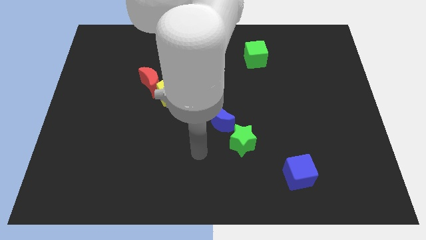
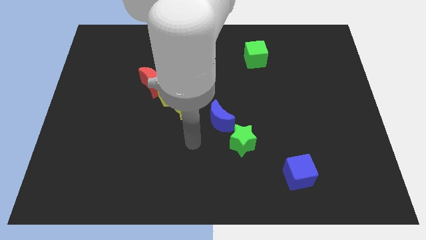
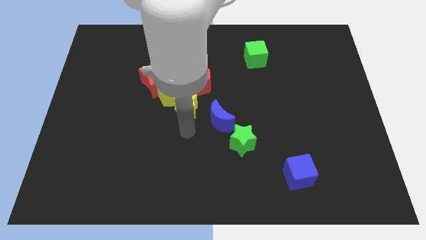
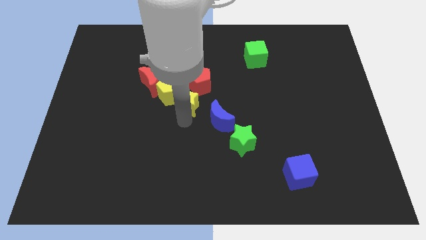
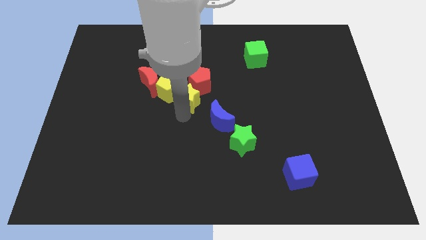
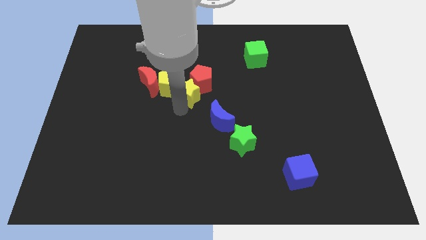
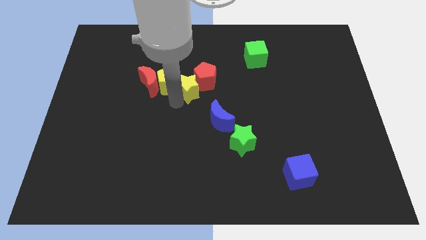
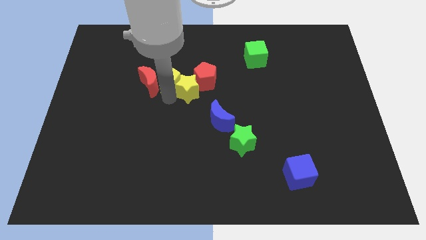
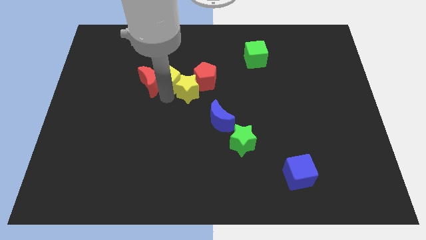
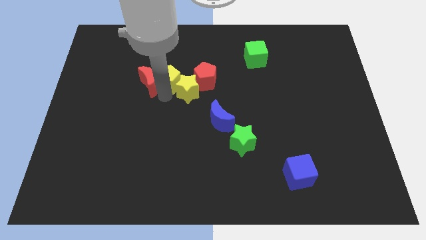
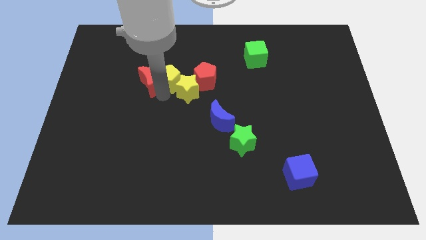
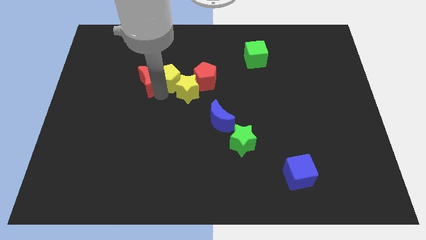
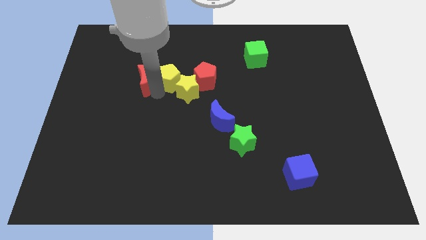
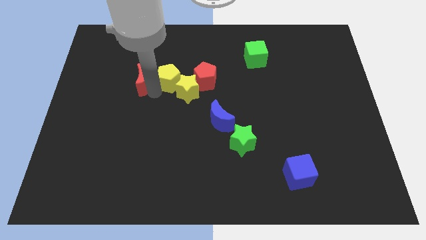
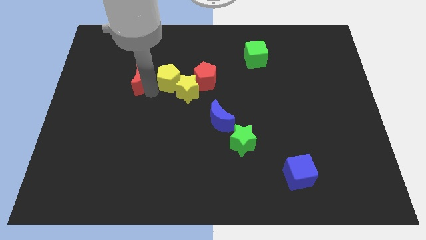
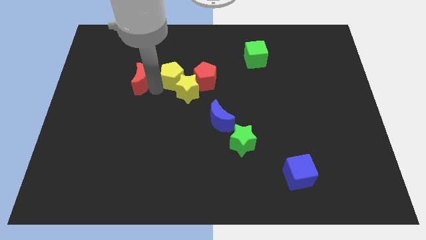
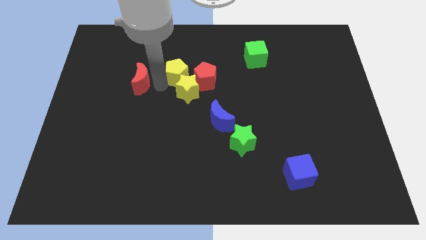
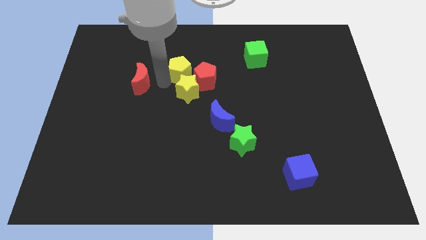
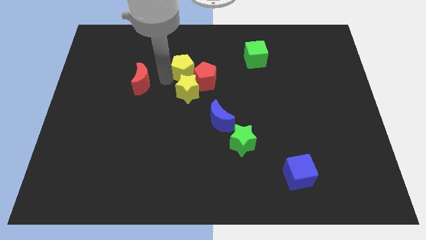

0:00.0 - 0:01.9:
separate the red moon from the yellow pentagon

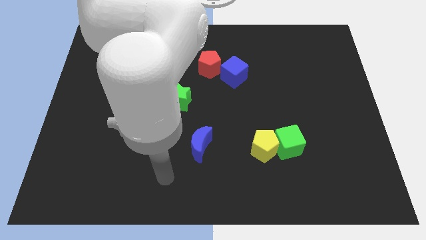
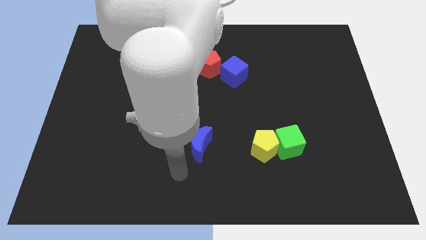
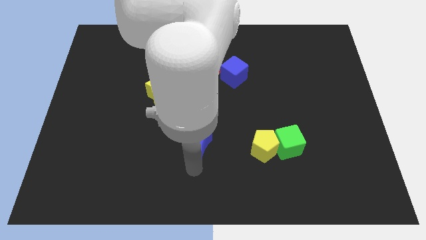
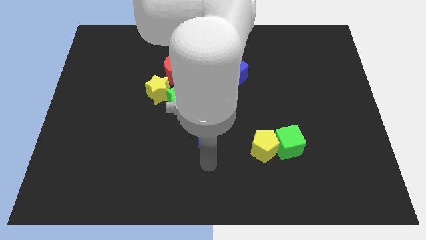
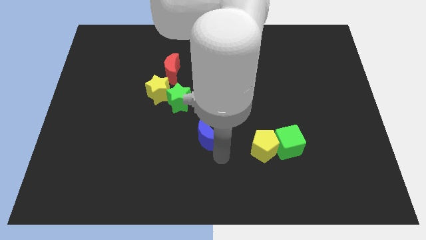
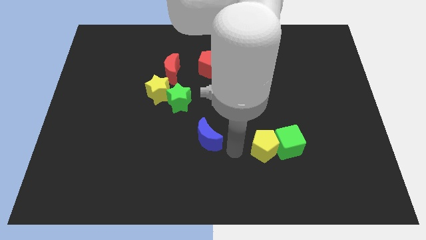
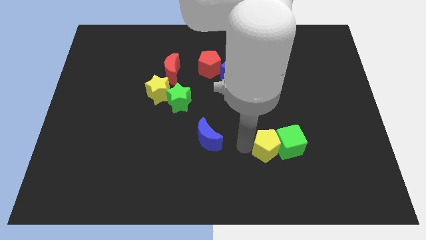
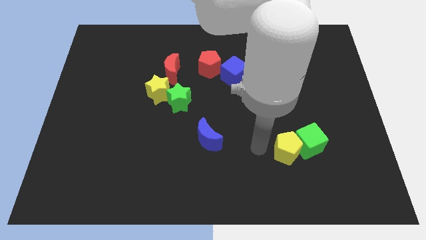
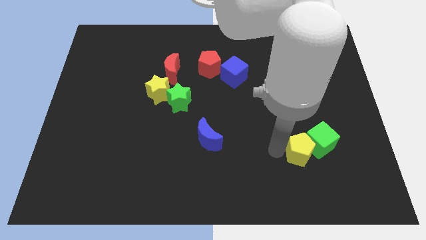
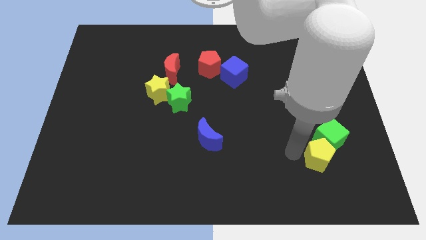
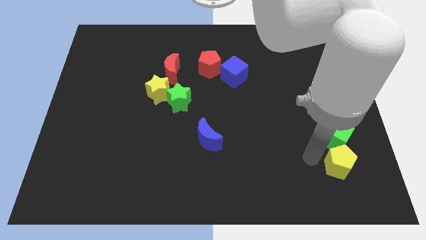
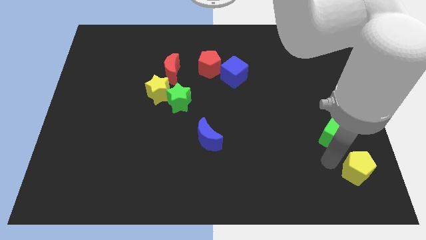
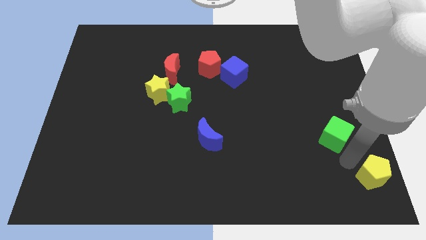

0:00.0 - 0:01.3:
separate the green cube from the yellow pentagon

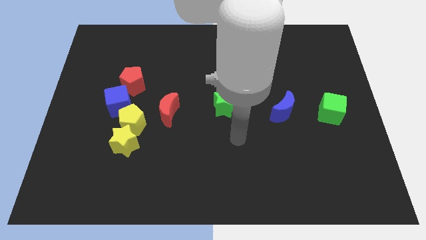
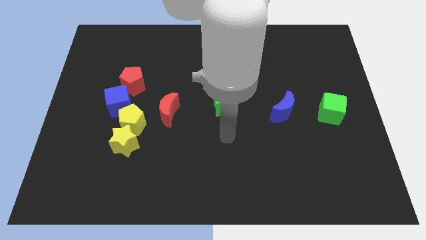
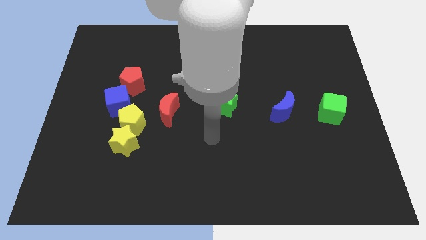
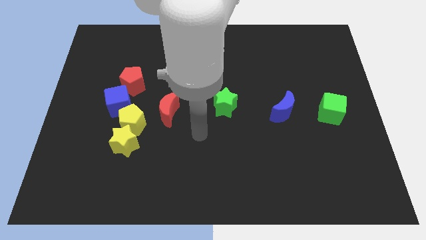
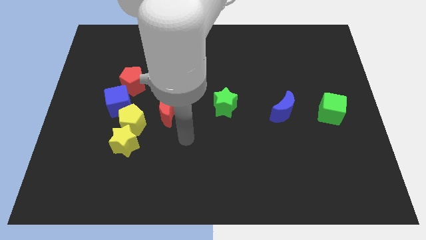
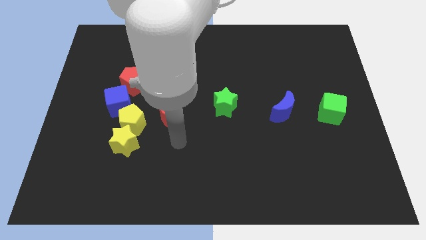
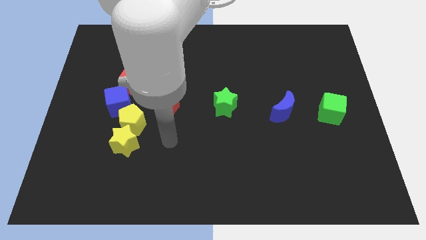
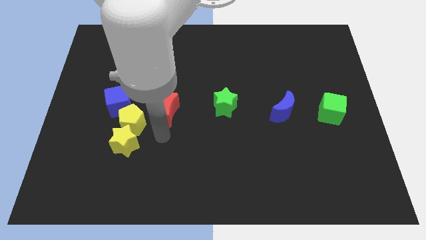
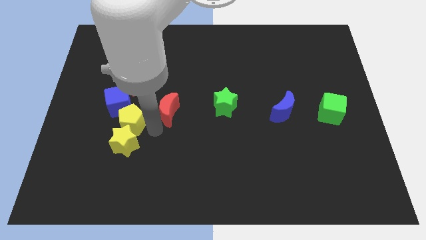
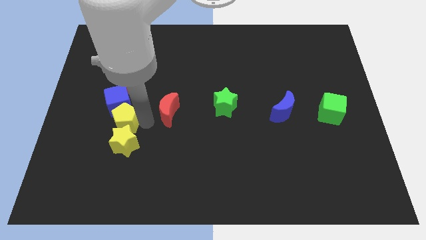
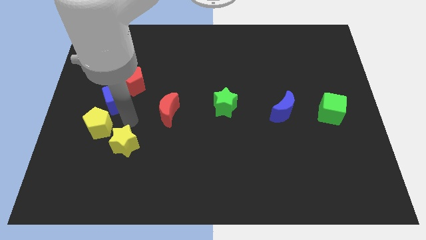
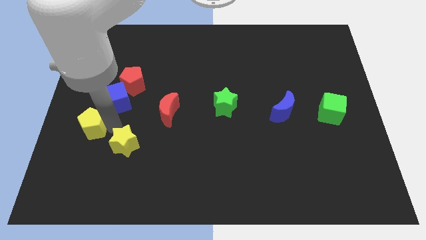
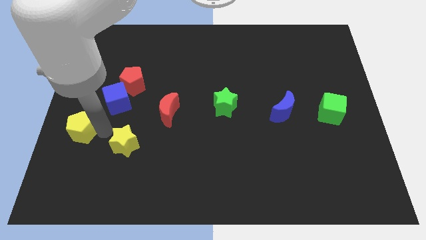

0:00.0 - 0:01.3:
move the yellow star away from the yellow pentagon

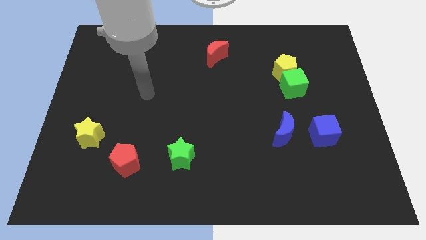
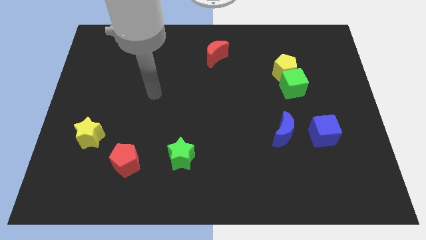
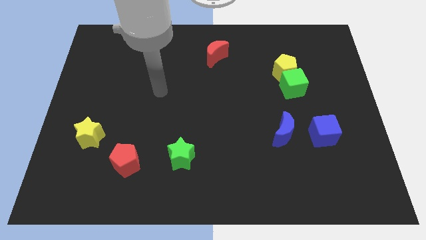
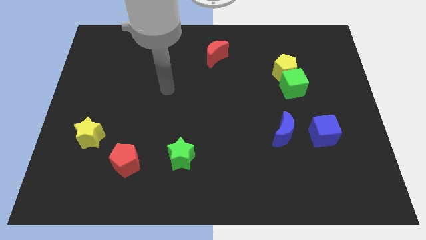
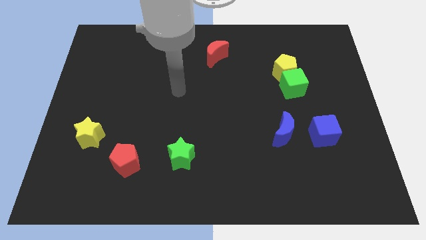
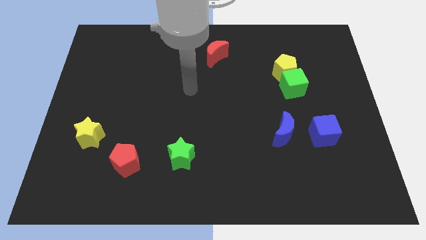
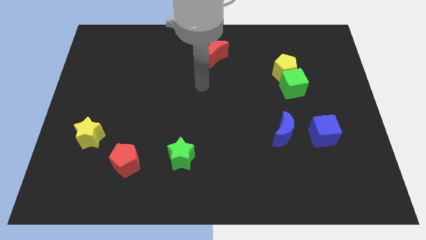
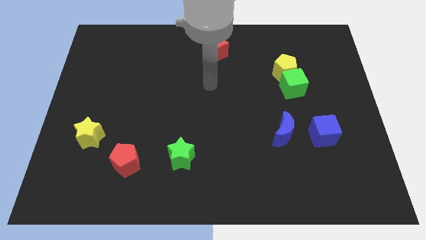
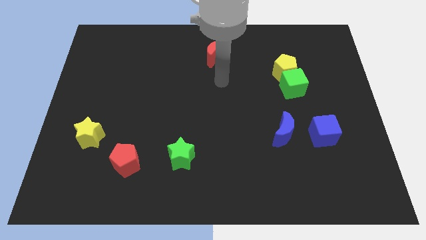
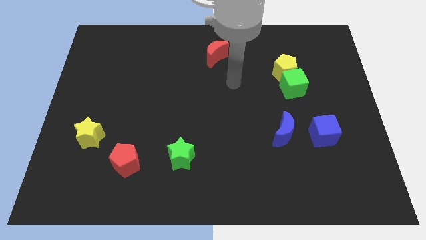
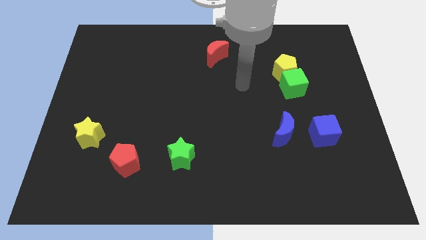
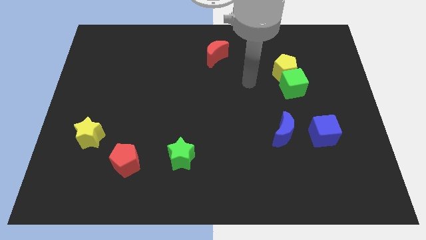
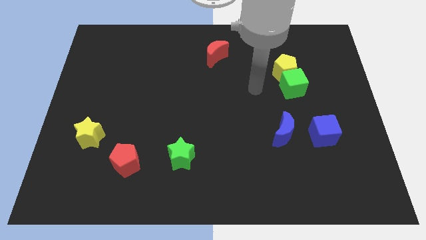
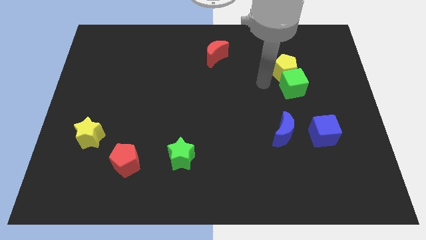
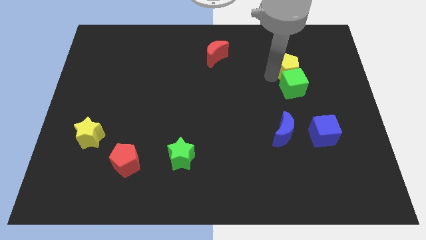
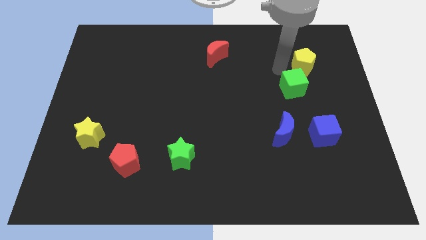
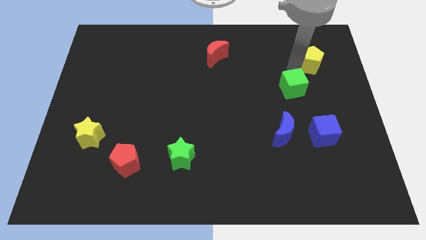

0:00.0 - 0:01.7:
move the green cube away from the yellow pentagon

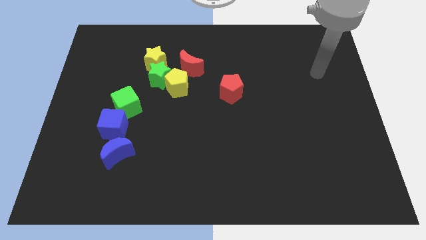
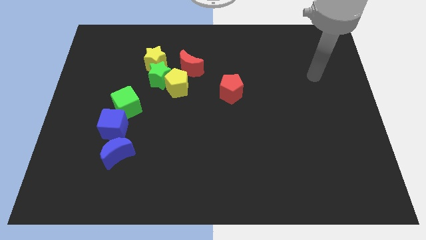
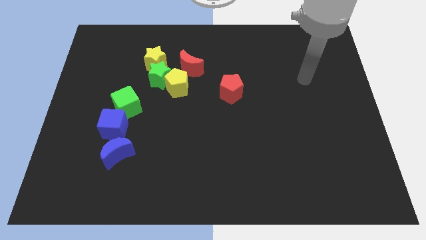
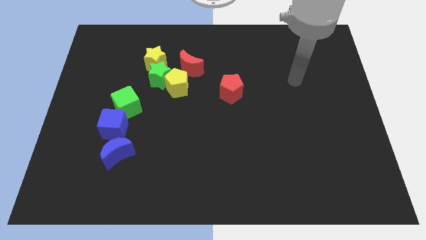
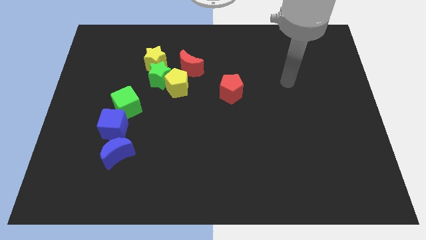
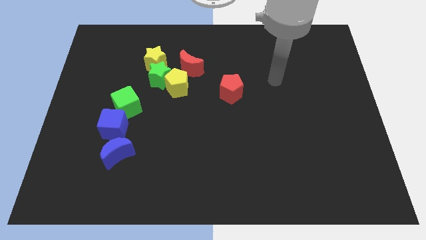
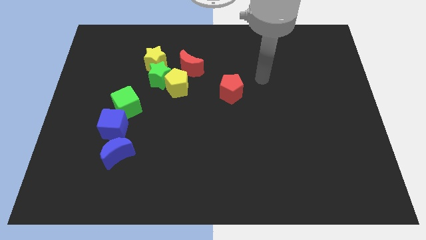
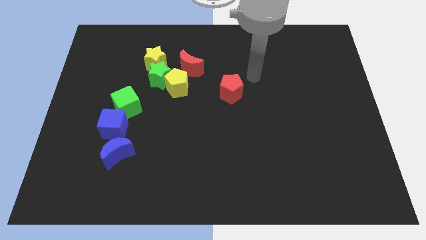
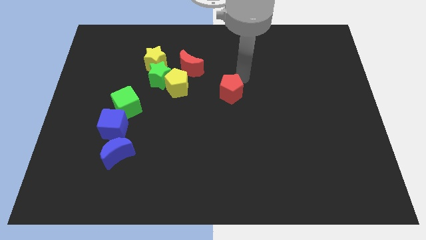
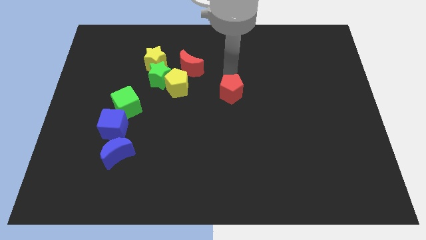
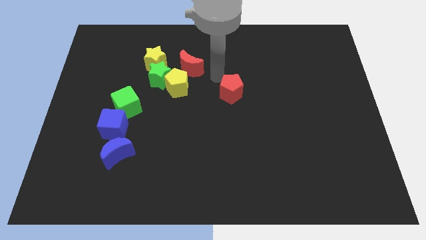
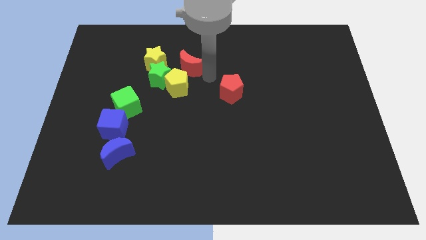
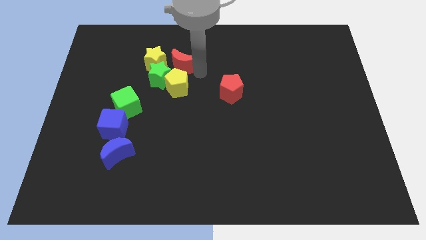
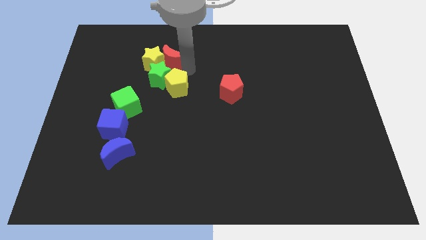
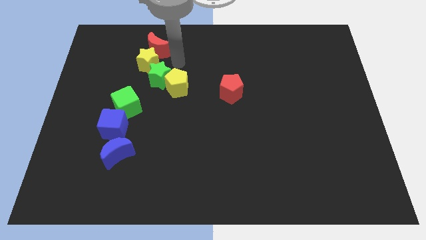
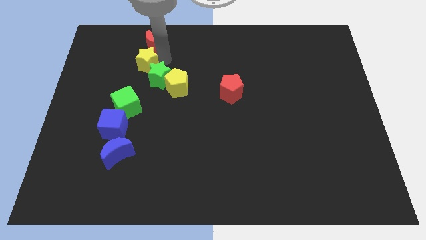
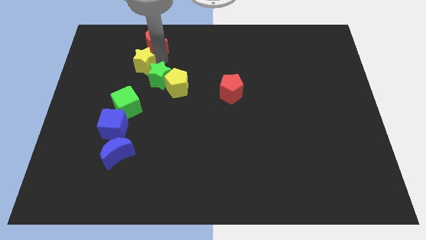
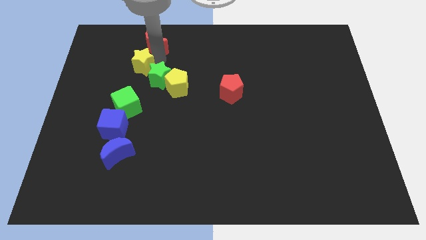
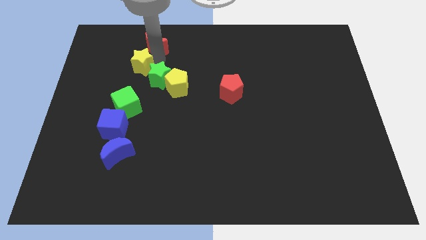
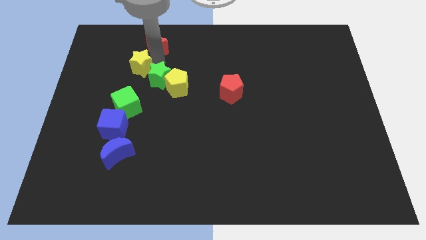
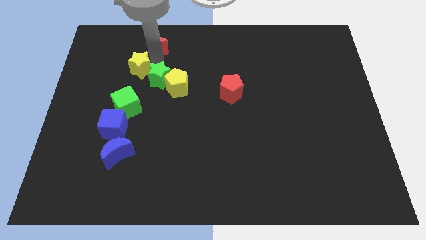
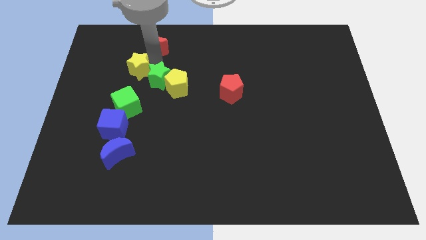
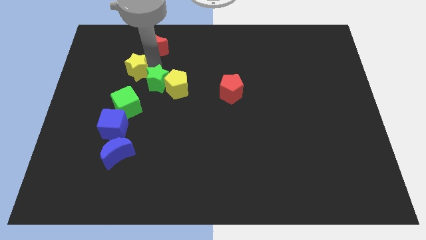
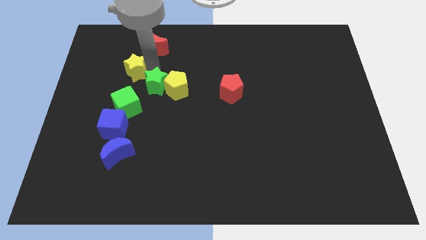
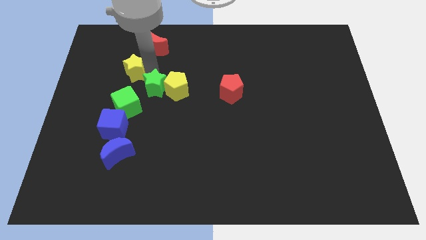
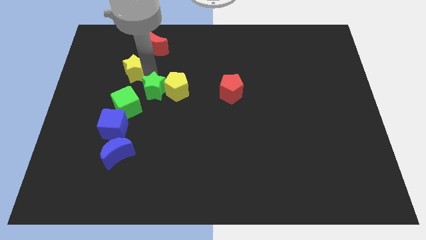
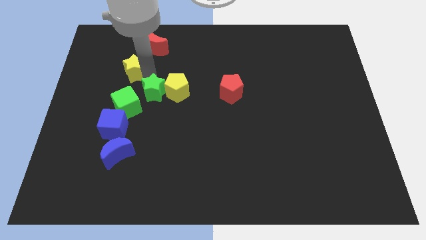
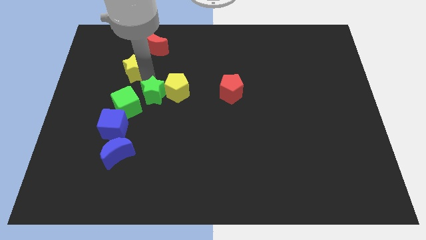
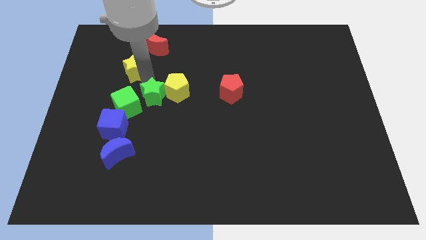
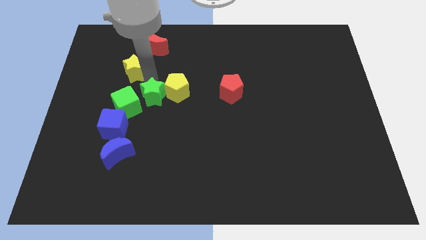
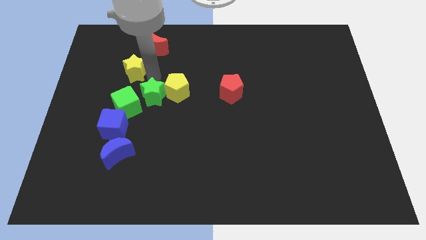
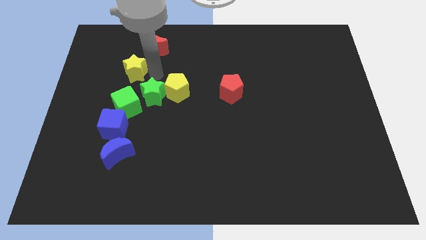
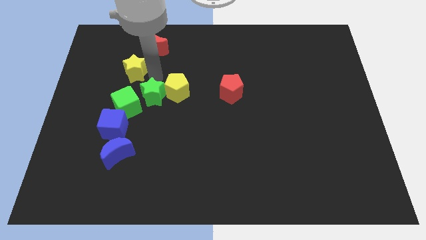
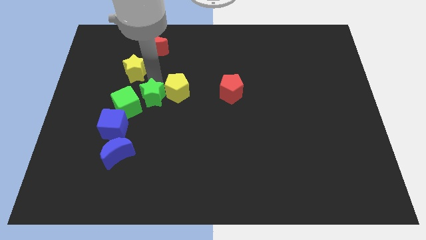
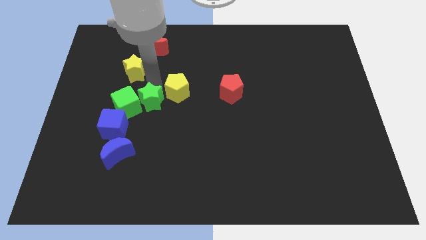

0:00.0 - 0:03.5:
move the green star away from the group of blocks
